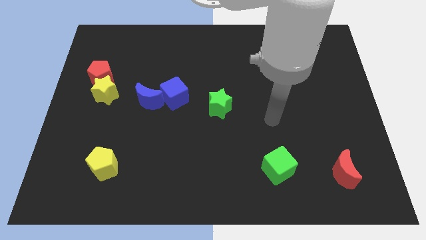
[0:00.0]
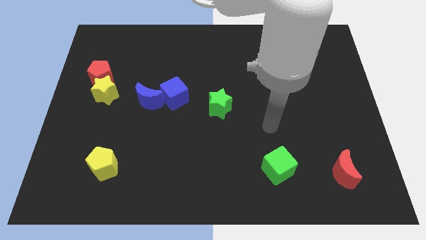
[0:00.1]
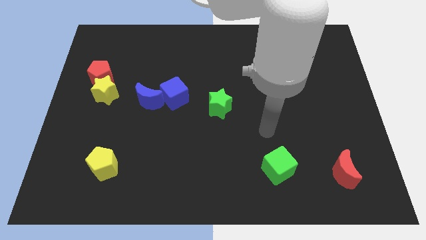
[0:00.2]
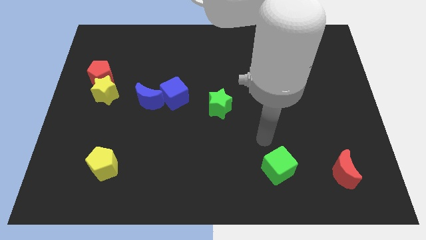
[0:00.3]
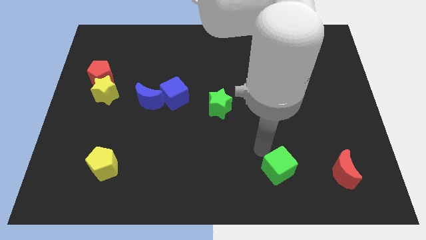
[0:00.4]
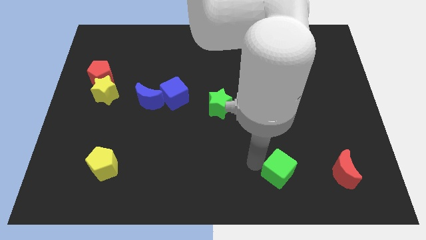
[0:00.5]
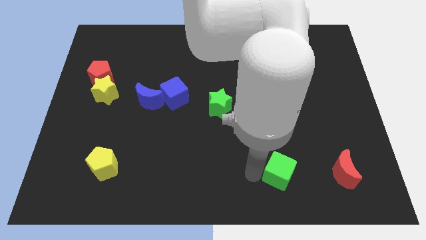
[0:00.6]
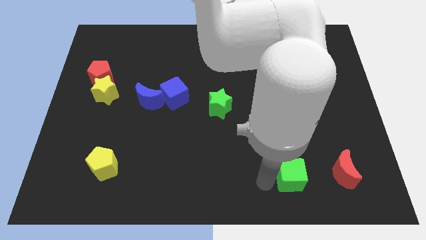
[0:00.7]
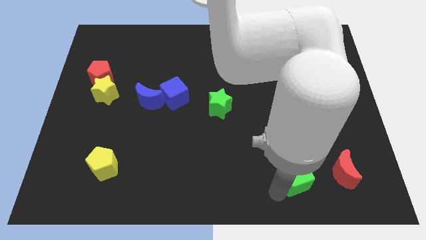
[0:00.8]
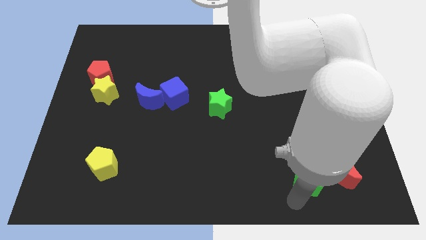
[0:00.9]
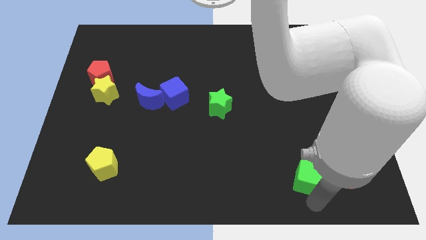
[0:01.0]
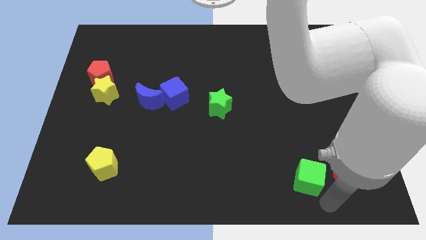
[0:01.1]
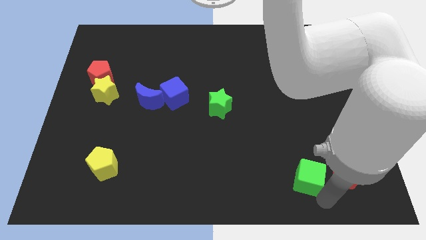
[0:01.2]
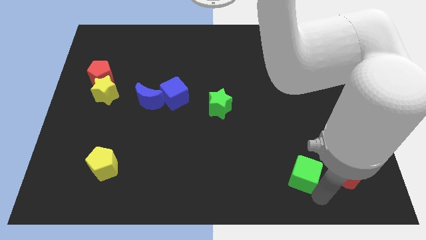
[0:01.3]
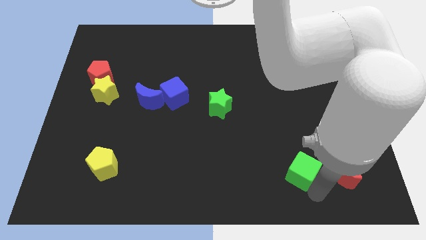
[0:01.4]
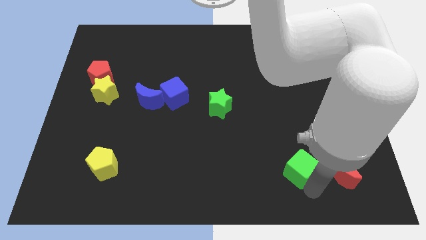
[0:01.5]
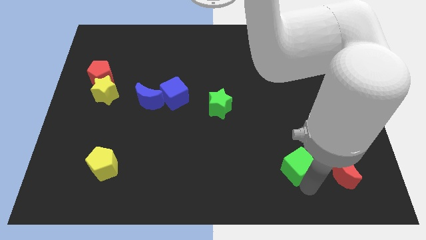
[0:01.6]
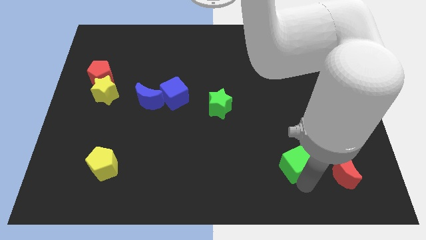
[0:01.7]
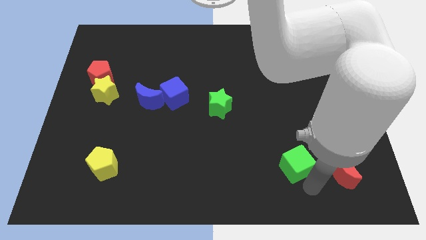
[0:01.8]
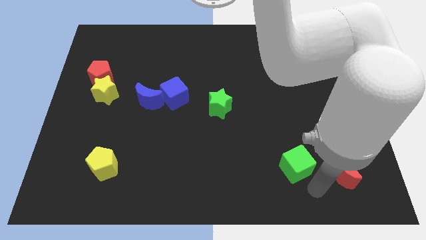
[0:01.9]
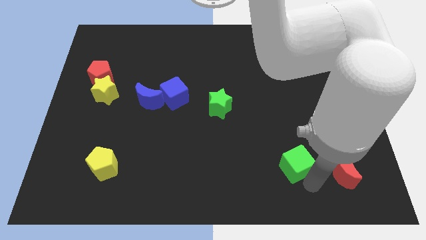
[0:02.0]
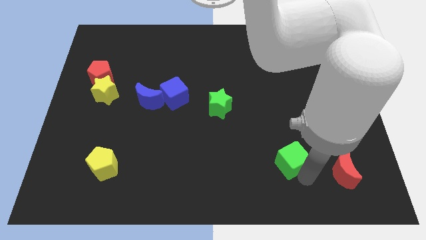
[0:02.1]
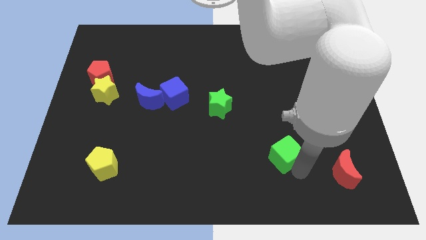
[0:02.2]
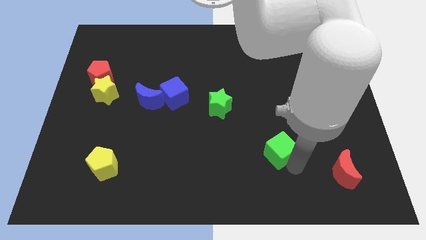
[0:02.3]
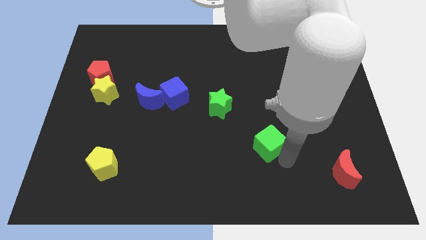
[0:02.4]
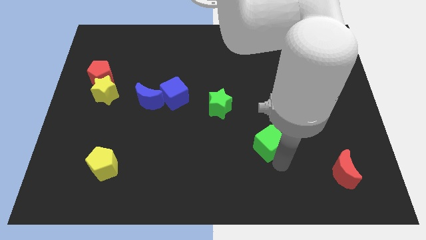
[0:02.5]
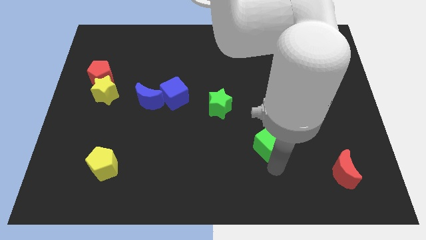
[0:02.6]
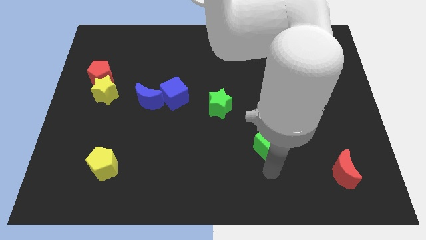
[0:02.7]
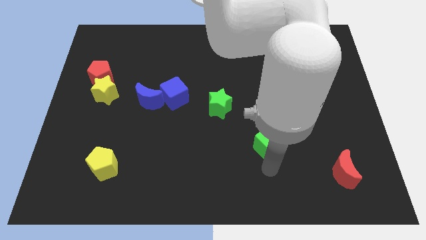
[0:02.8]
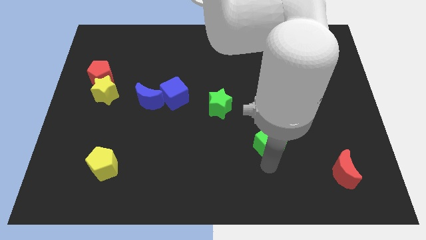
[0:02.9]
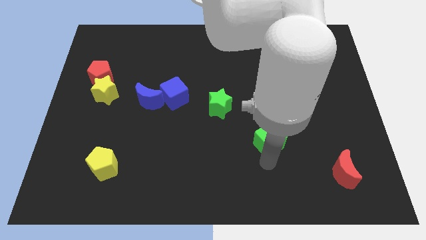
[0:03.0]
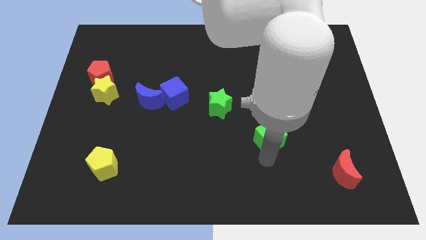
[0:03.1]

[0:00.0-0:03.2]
slightly push the green cube upwards

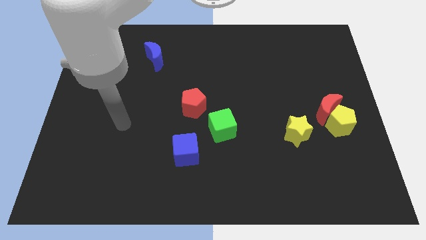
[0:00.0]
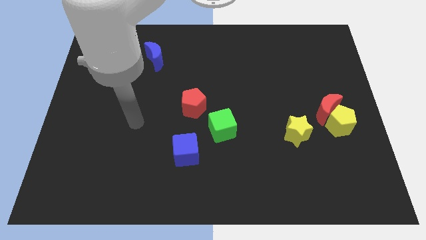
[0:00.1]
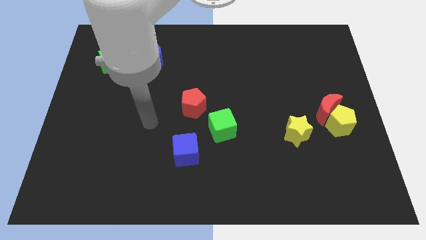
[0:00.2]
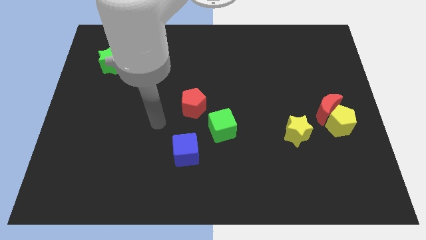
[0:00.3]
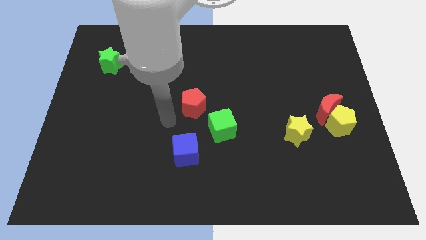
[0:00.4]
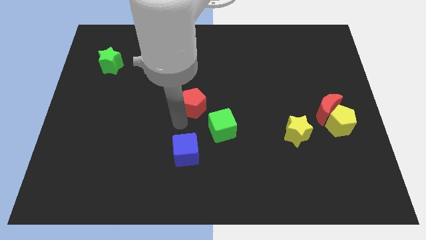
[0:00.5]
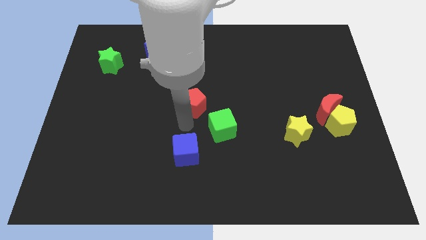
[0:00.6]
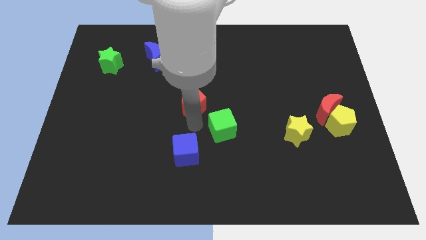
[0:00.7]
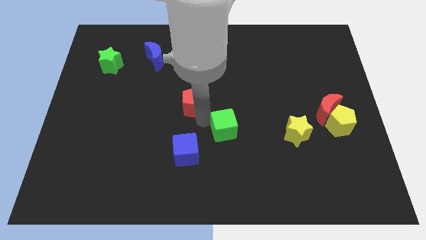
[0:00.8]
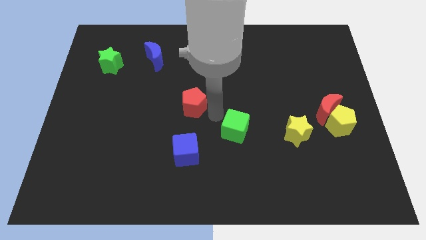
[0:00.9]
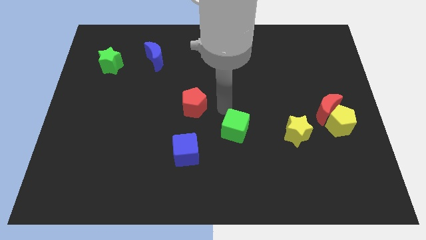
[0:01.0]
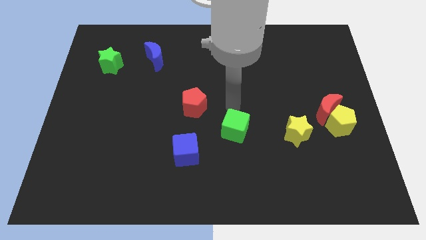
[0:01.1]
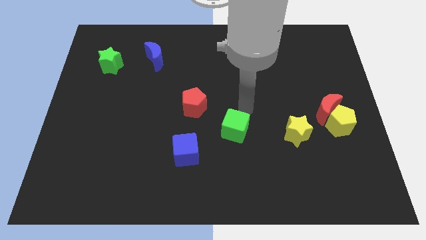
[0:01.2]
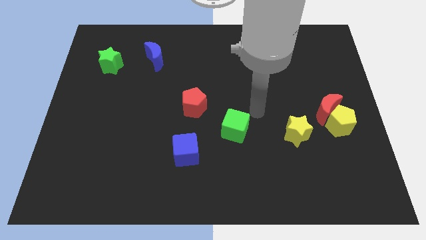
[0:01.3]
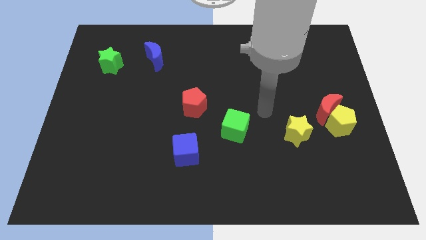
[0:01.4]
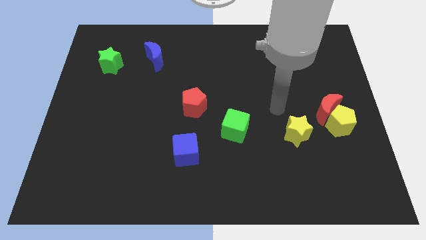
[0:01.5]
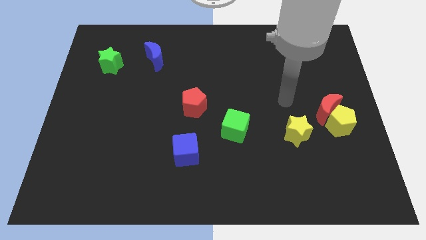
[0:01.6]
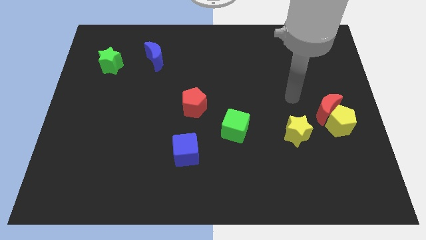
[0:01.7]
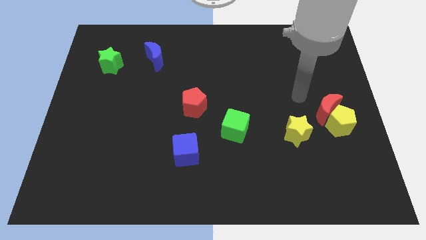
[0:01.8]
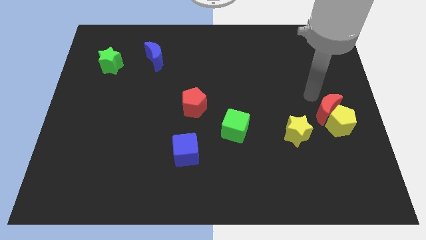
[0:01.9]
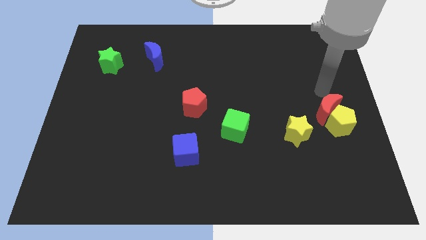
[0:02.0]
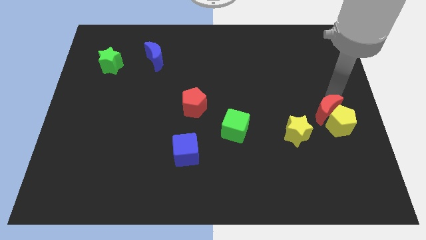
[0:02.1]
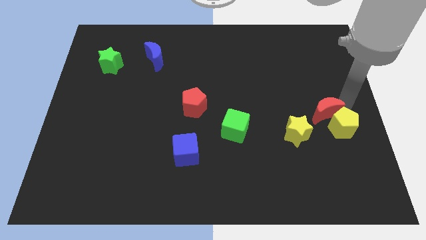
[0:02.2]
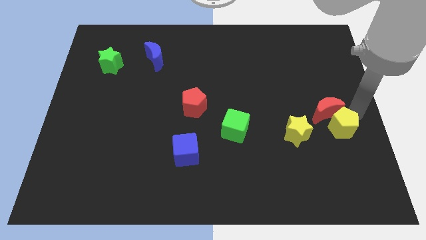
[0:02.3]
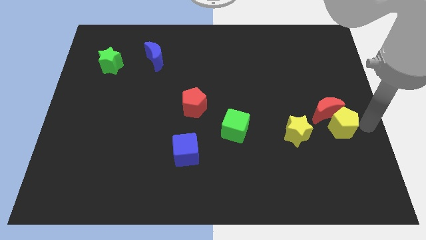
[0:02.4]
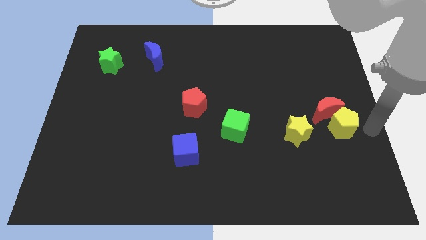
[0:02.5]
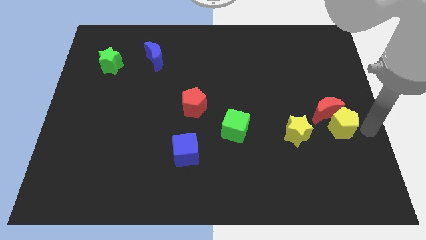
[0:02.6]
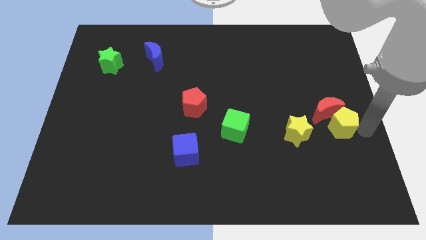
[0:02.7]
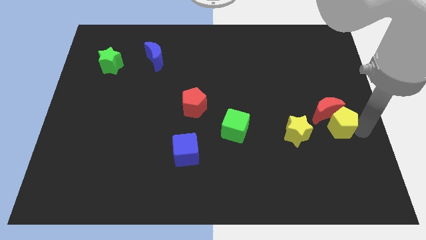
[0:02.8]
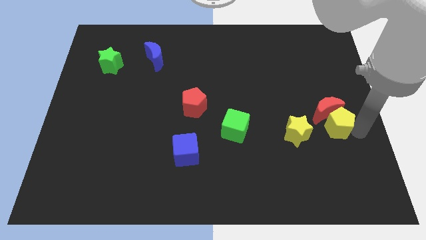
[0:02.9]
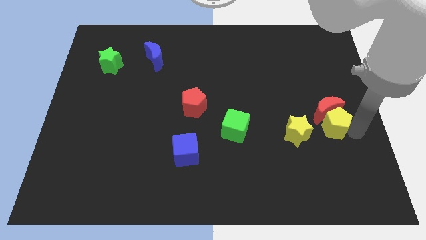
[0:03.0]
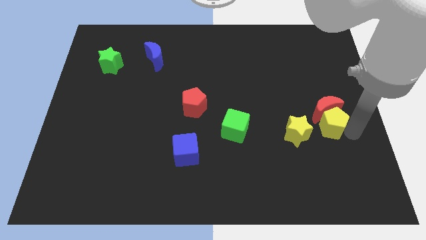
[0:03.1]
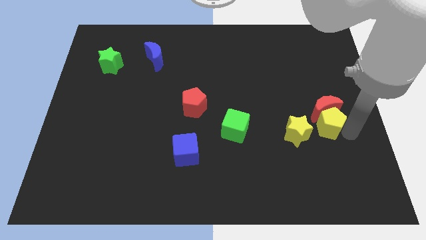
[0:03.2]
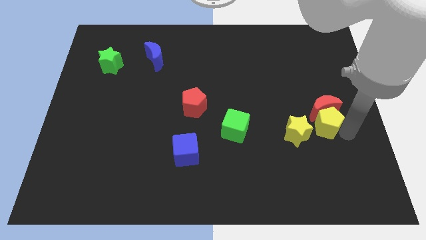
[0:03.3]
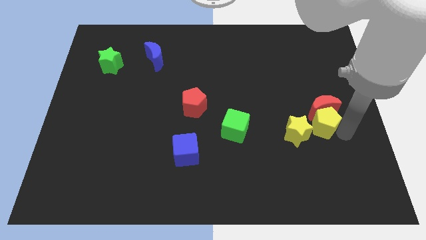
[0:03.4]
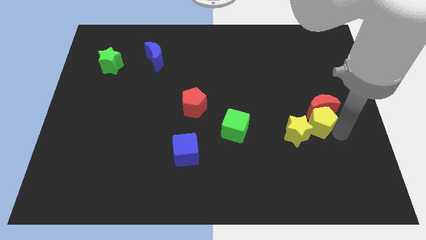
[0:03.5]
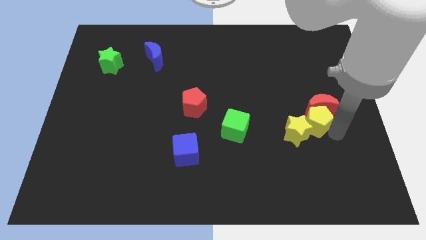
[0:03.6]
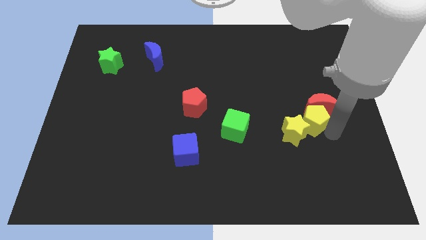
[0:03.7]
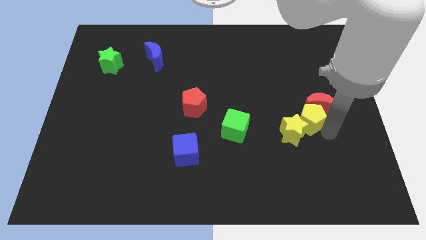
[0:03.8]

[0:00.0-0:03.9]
push the yellow pentagon to the left slightly

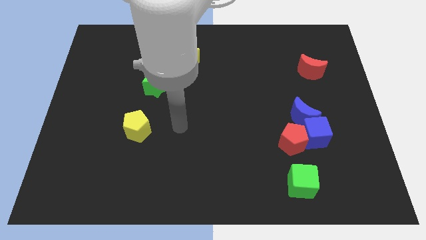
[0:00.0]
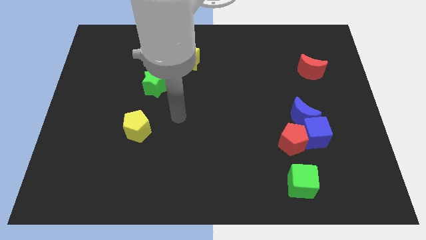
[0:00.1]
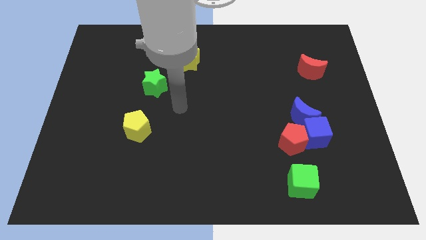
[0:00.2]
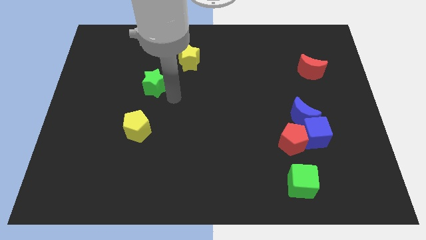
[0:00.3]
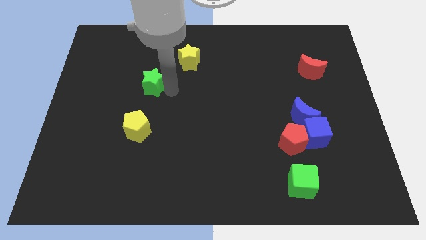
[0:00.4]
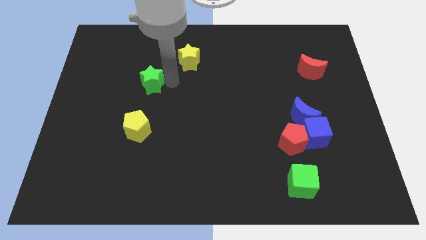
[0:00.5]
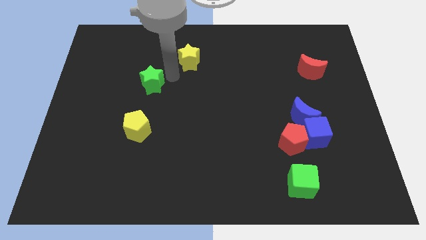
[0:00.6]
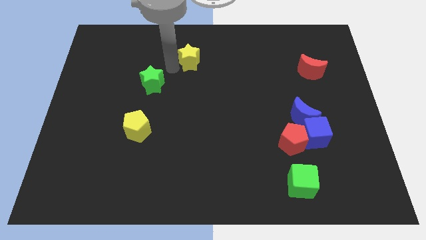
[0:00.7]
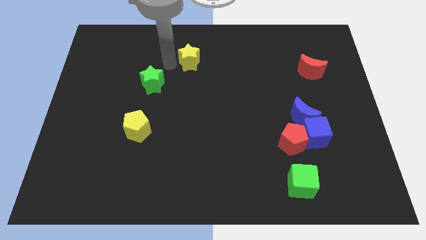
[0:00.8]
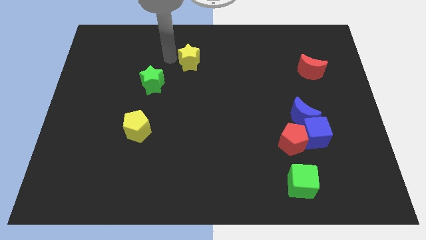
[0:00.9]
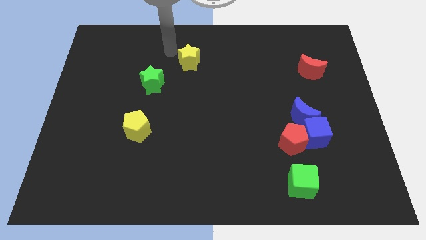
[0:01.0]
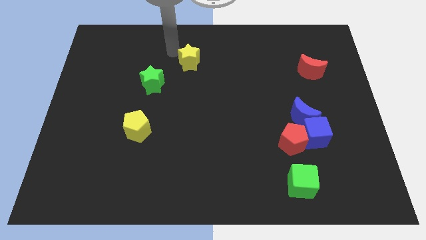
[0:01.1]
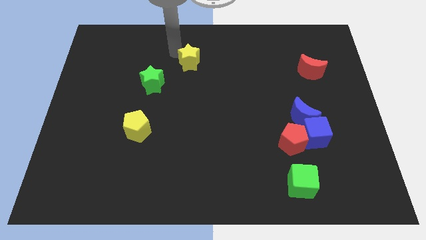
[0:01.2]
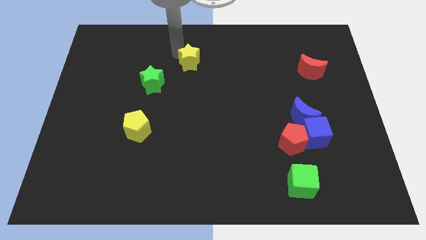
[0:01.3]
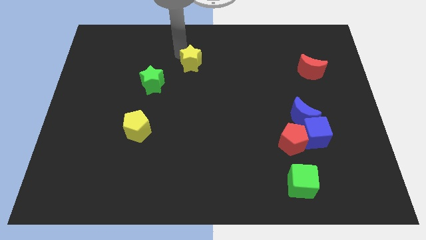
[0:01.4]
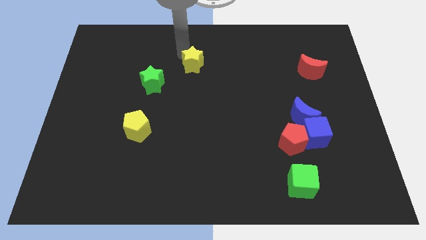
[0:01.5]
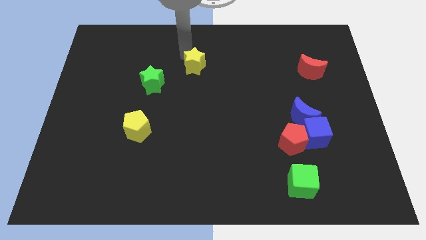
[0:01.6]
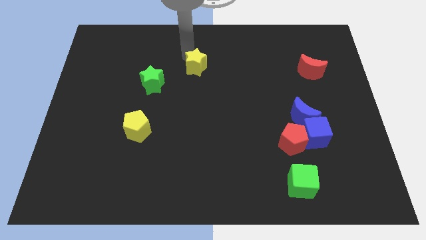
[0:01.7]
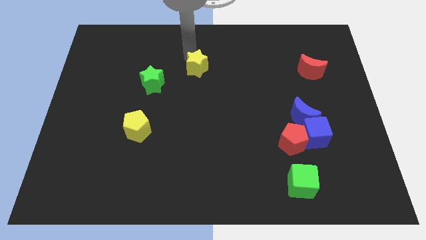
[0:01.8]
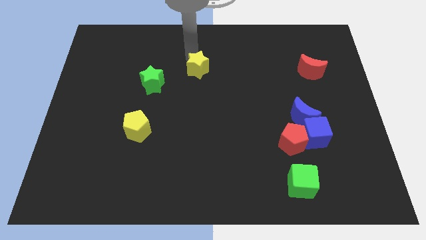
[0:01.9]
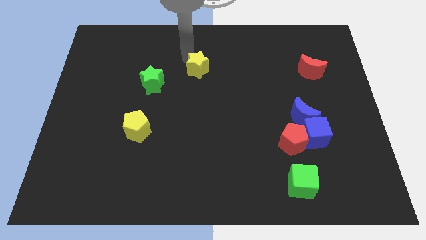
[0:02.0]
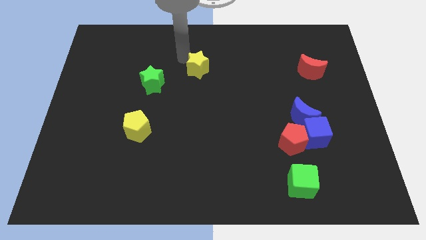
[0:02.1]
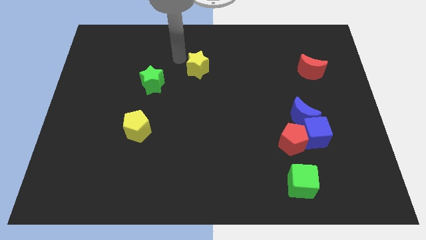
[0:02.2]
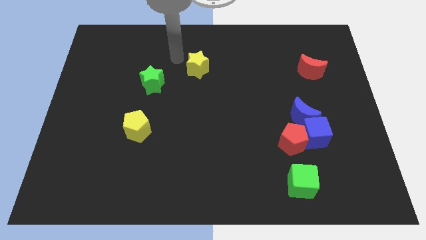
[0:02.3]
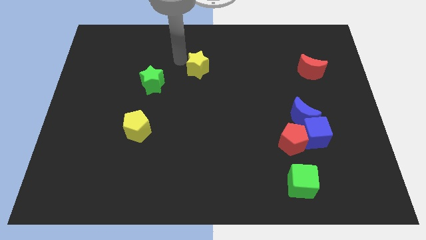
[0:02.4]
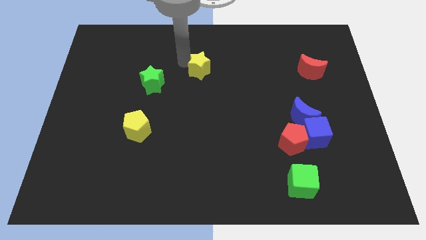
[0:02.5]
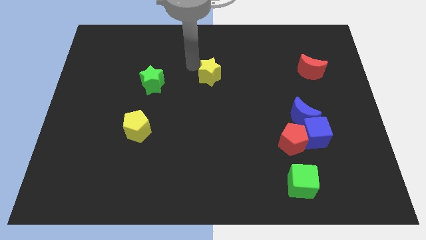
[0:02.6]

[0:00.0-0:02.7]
slide the yellow star down and to the right diagonally somewhat
